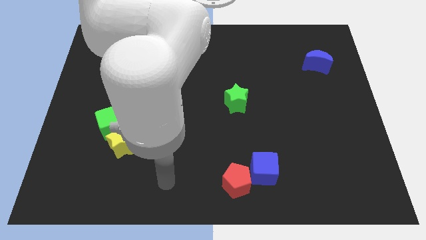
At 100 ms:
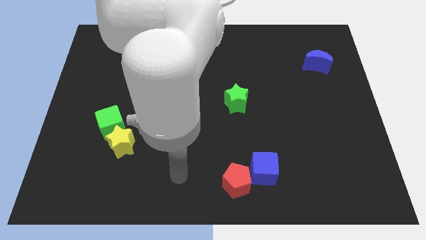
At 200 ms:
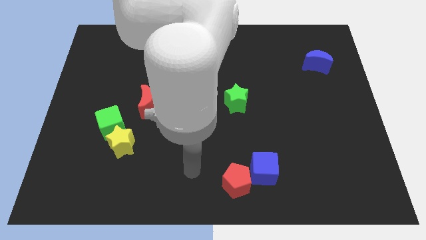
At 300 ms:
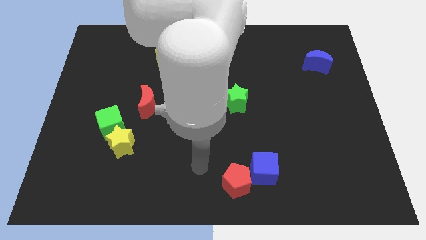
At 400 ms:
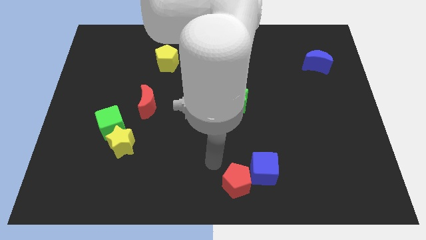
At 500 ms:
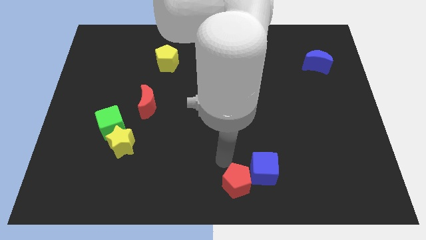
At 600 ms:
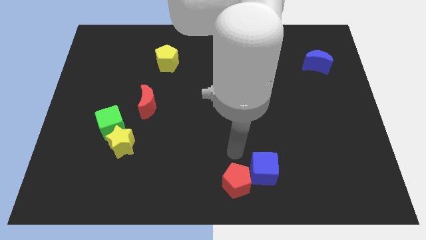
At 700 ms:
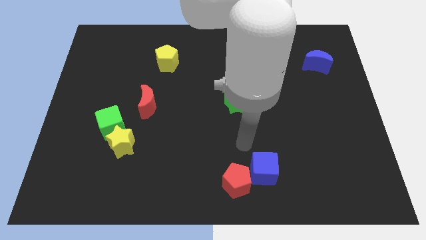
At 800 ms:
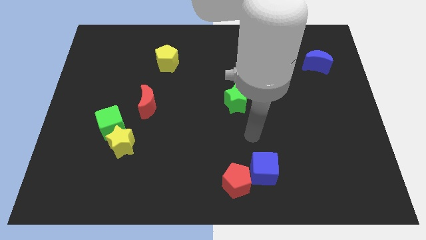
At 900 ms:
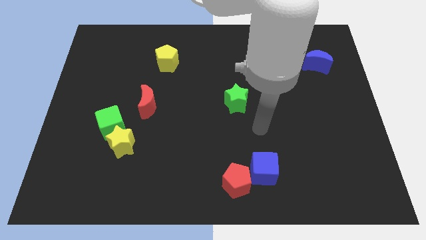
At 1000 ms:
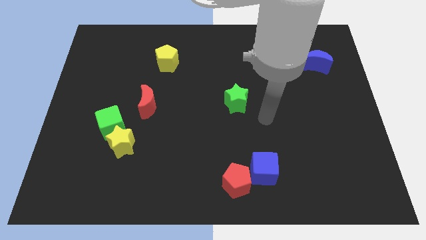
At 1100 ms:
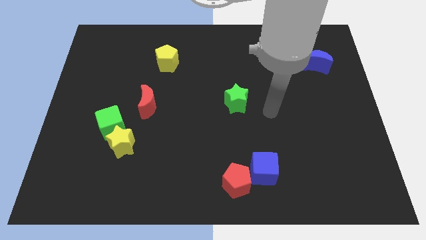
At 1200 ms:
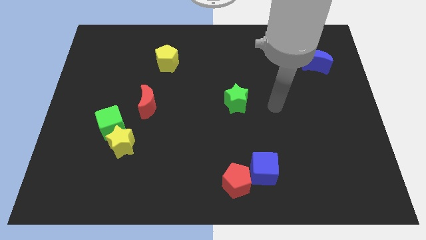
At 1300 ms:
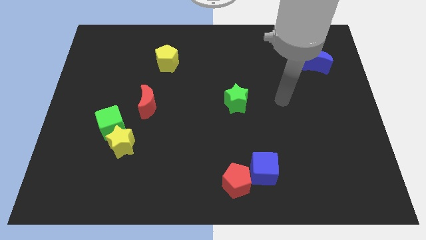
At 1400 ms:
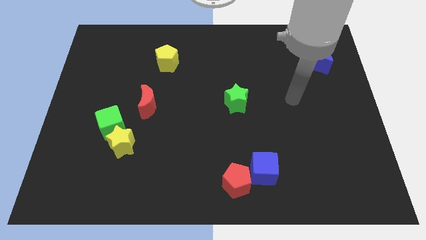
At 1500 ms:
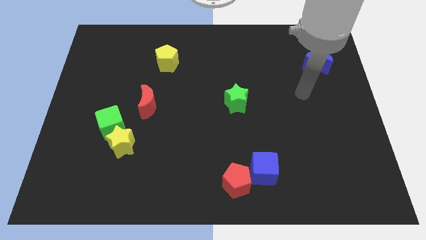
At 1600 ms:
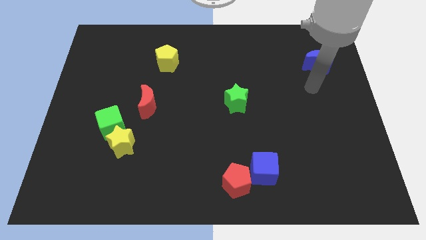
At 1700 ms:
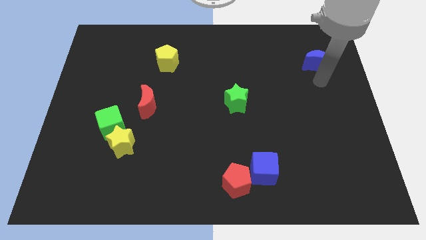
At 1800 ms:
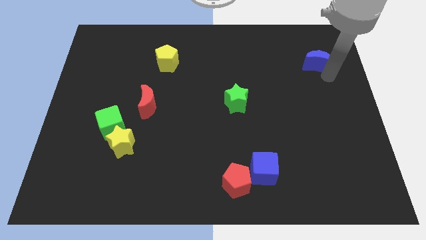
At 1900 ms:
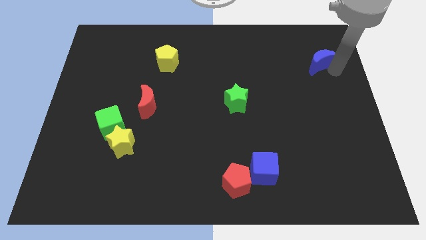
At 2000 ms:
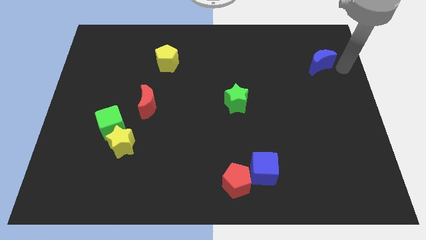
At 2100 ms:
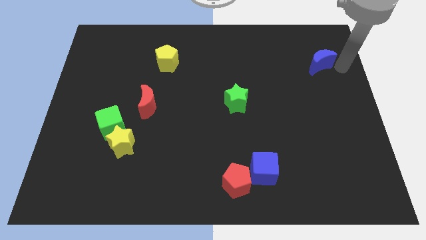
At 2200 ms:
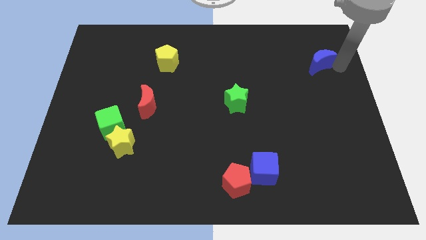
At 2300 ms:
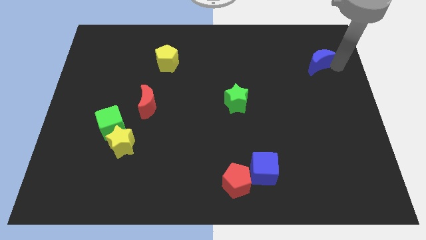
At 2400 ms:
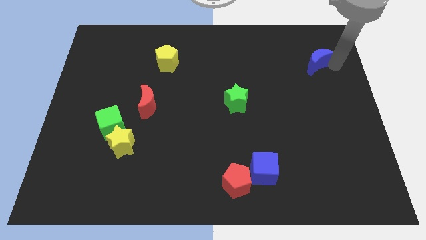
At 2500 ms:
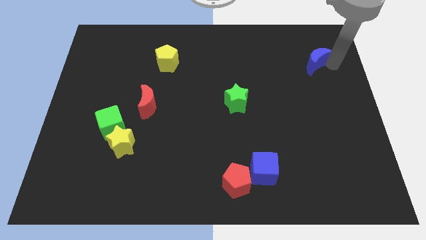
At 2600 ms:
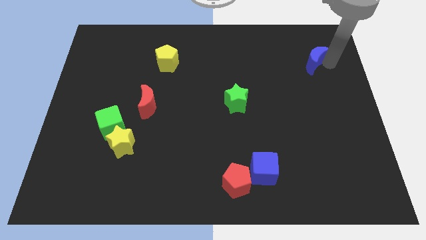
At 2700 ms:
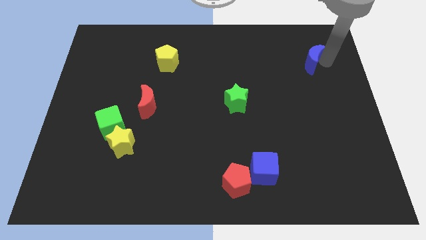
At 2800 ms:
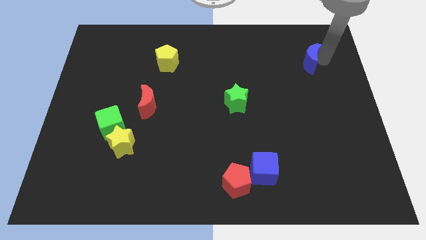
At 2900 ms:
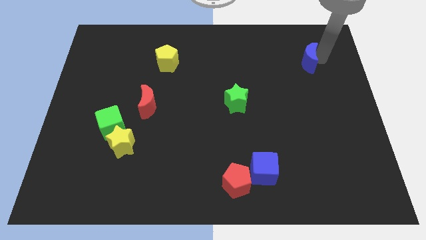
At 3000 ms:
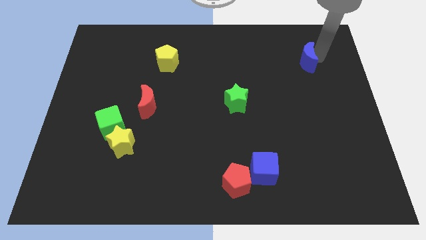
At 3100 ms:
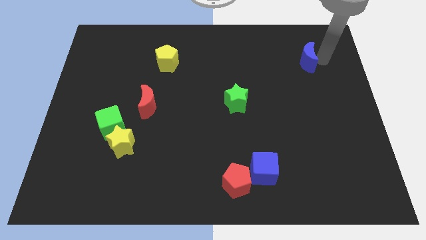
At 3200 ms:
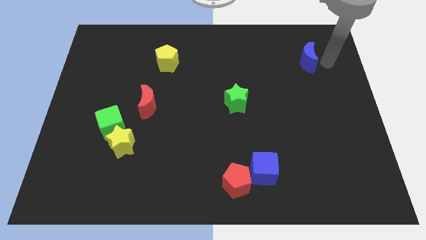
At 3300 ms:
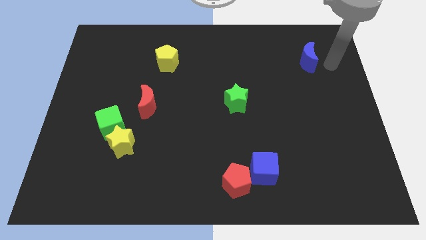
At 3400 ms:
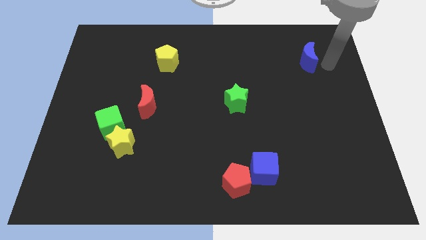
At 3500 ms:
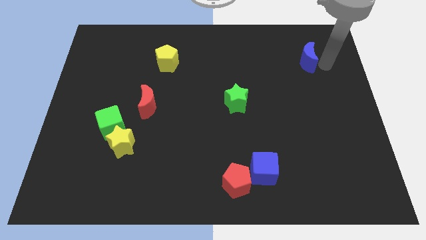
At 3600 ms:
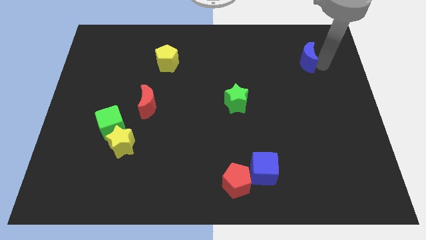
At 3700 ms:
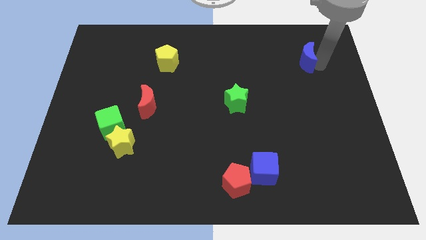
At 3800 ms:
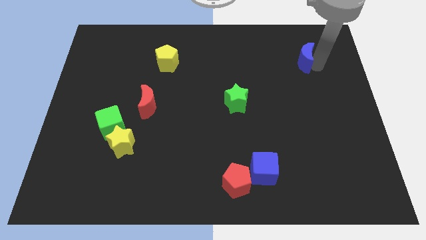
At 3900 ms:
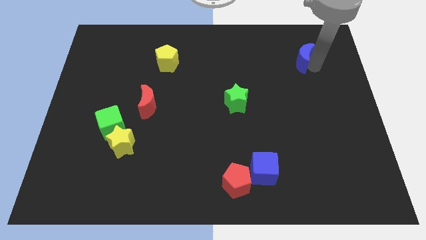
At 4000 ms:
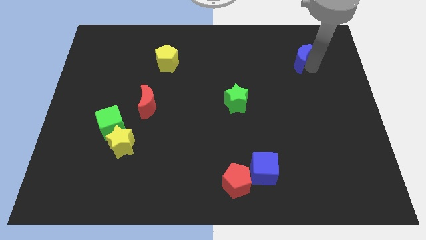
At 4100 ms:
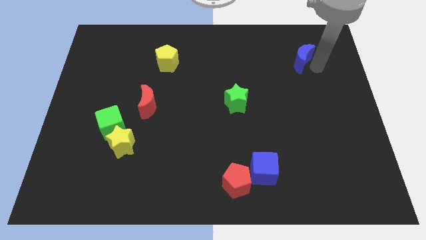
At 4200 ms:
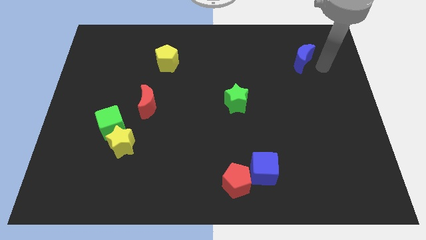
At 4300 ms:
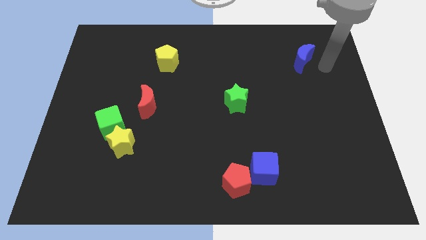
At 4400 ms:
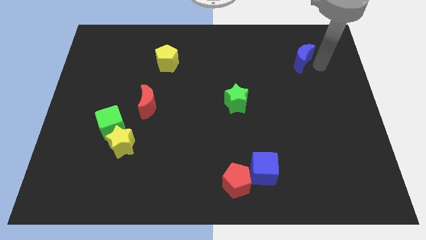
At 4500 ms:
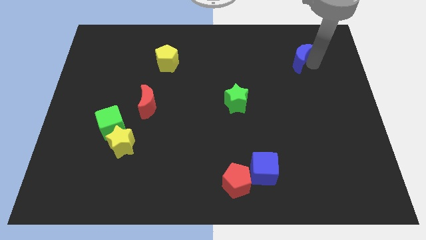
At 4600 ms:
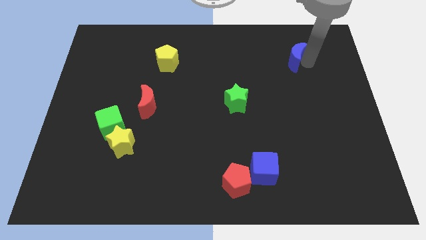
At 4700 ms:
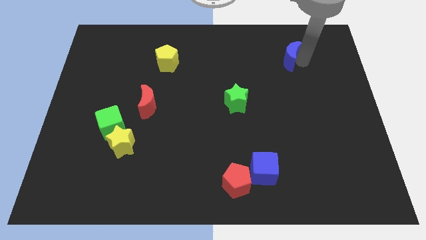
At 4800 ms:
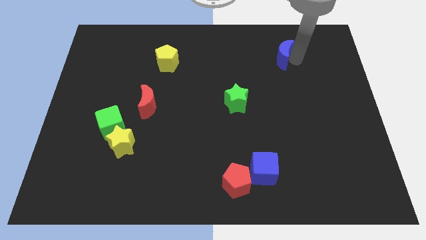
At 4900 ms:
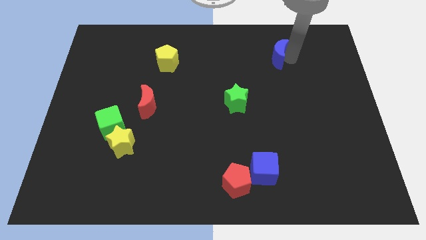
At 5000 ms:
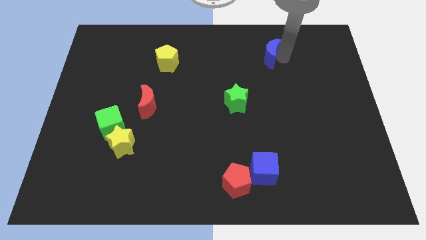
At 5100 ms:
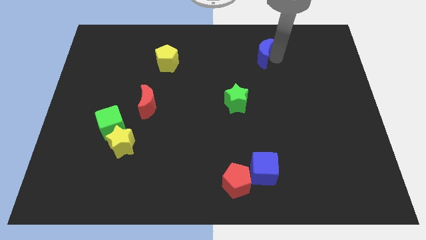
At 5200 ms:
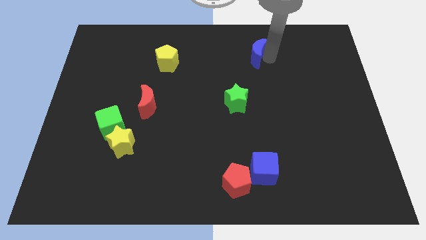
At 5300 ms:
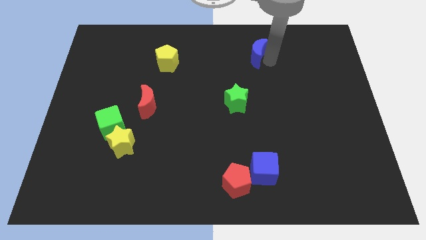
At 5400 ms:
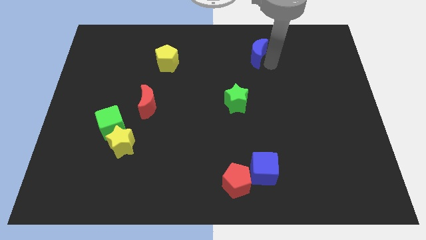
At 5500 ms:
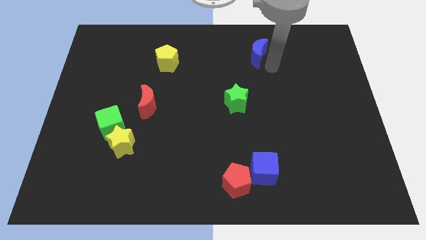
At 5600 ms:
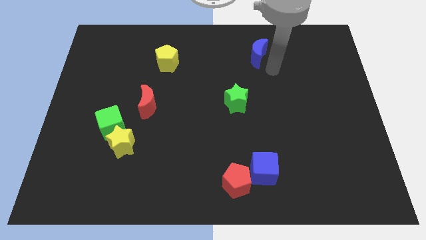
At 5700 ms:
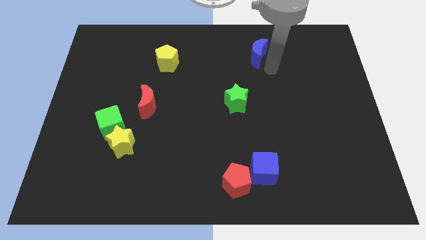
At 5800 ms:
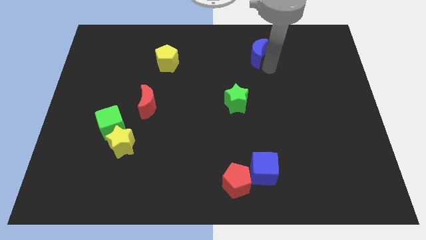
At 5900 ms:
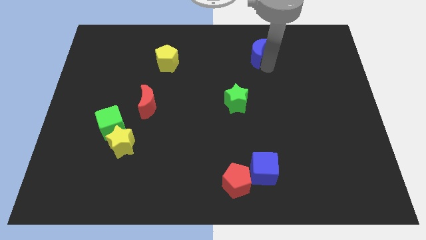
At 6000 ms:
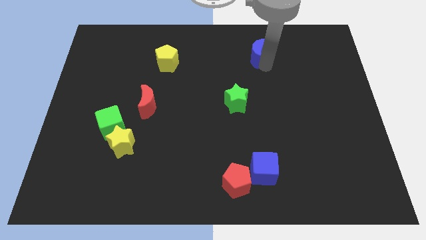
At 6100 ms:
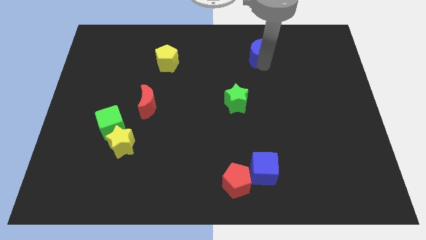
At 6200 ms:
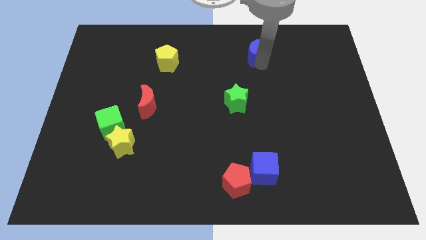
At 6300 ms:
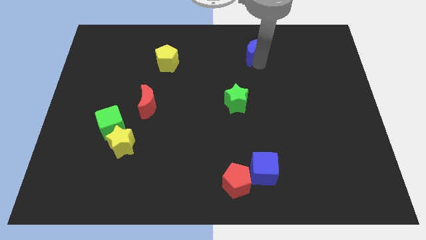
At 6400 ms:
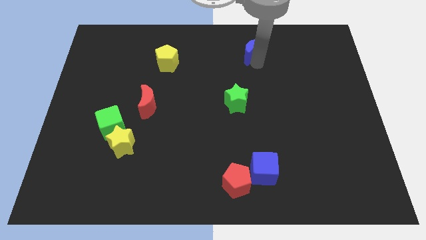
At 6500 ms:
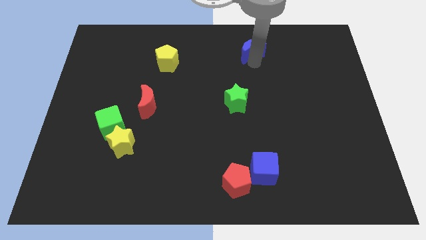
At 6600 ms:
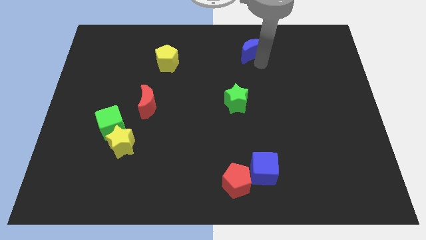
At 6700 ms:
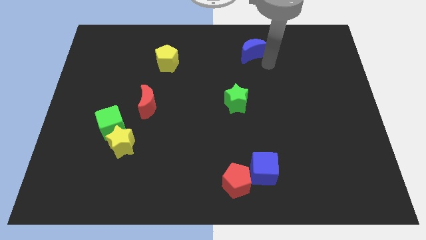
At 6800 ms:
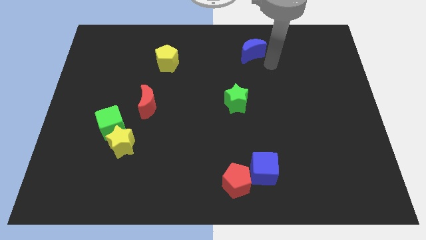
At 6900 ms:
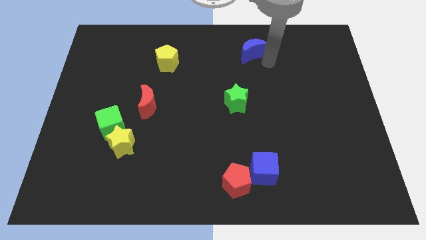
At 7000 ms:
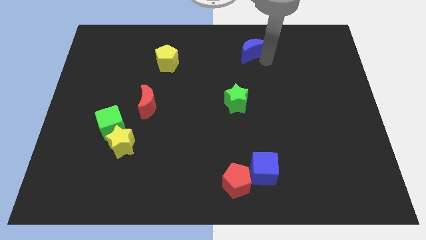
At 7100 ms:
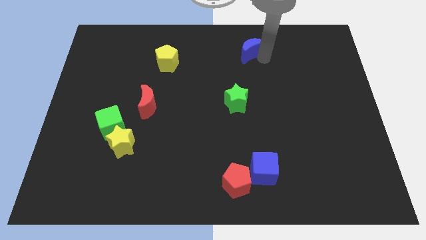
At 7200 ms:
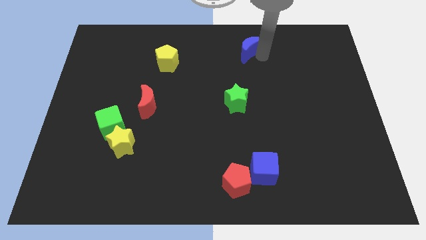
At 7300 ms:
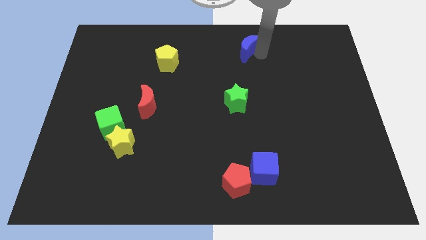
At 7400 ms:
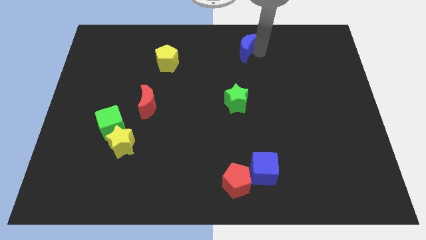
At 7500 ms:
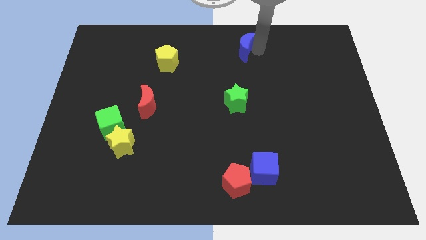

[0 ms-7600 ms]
move the blue moon to the top side
